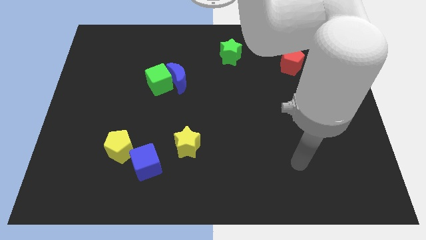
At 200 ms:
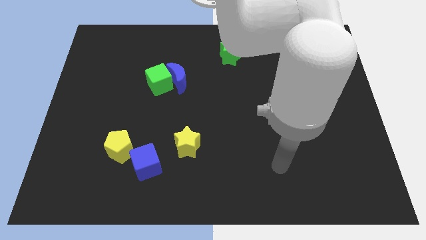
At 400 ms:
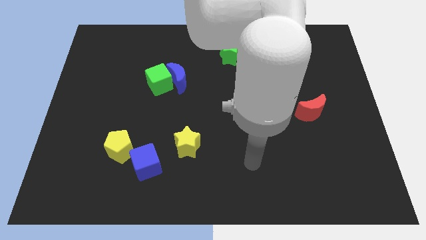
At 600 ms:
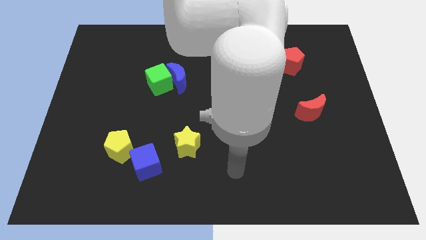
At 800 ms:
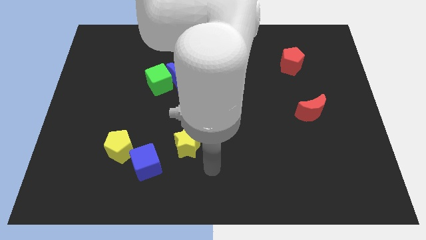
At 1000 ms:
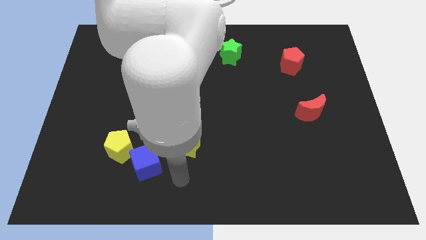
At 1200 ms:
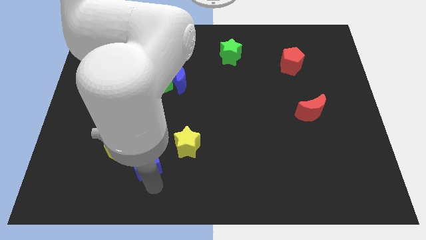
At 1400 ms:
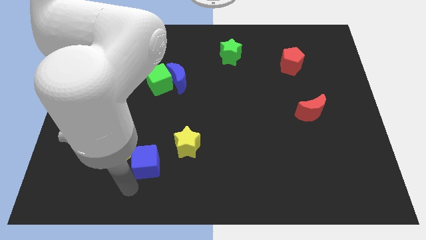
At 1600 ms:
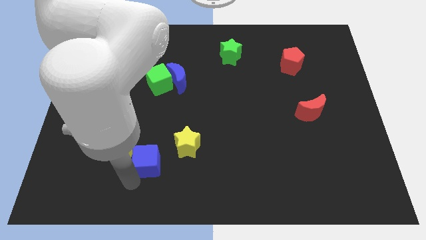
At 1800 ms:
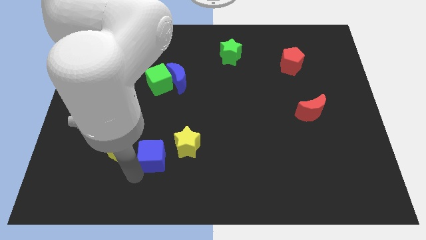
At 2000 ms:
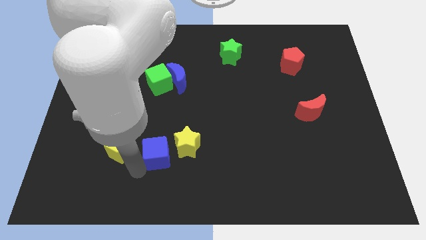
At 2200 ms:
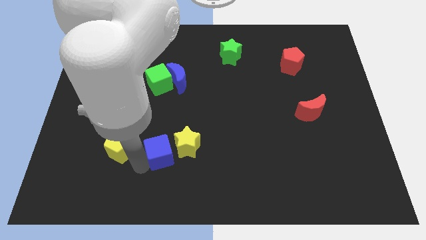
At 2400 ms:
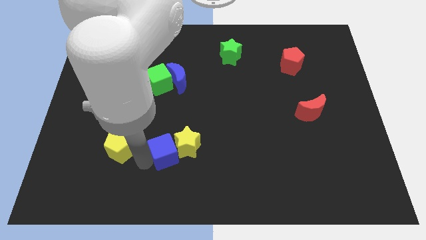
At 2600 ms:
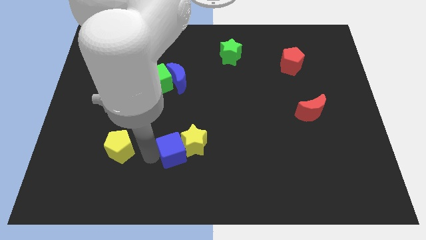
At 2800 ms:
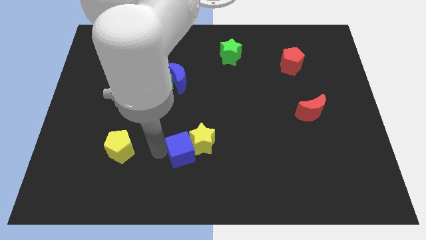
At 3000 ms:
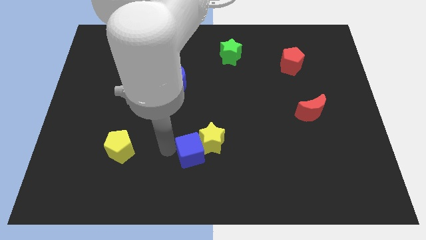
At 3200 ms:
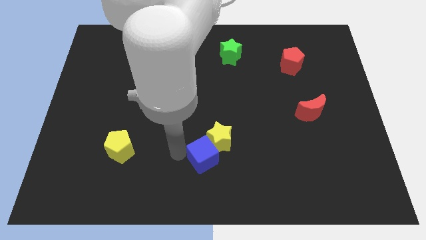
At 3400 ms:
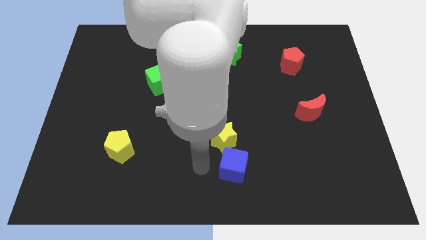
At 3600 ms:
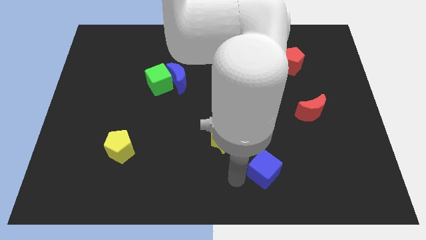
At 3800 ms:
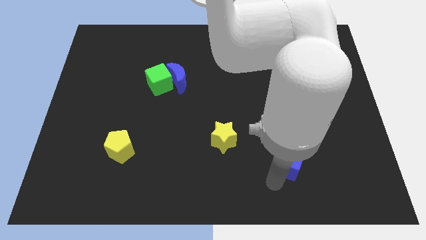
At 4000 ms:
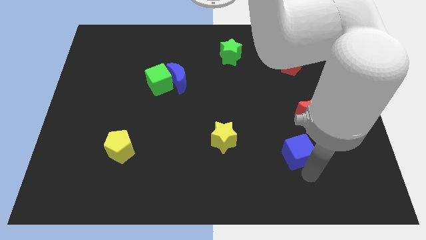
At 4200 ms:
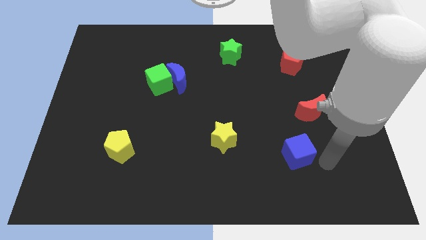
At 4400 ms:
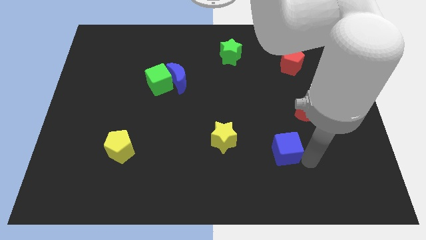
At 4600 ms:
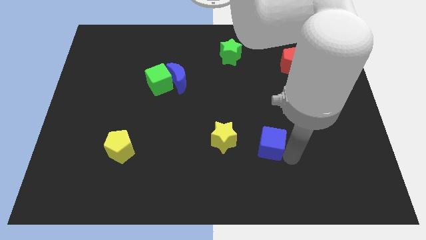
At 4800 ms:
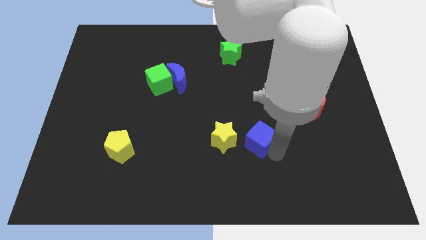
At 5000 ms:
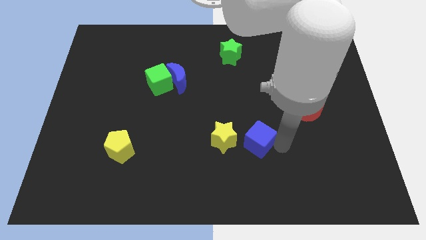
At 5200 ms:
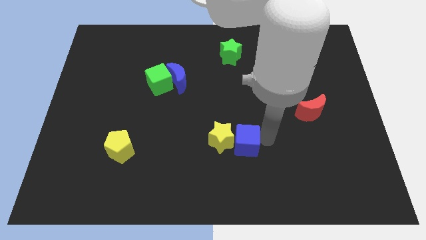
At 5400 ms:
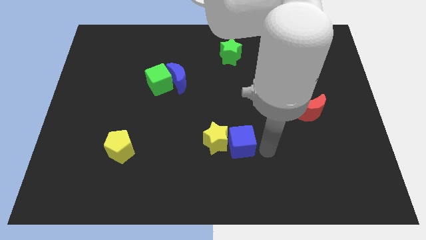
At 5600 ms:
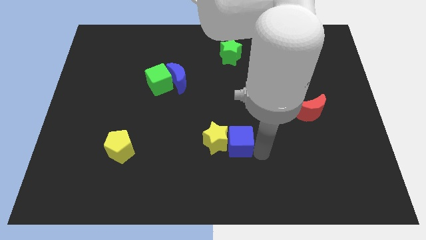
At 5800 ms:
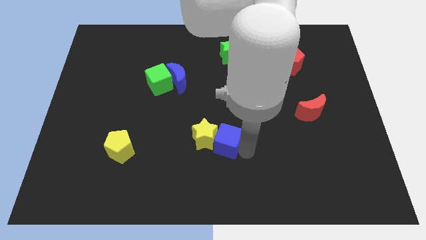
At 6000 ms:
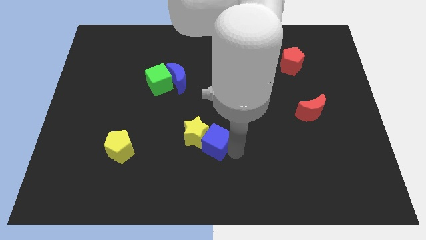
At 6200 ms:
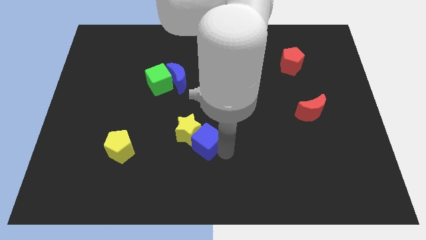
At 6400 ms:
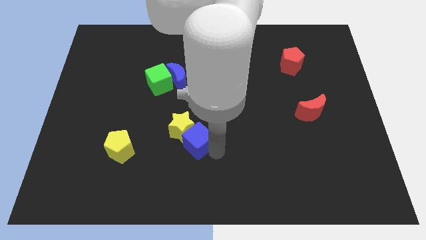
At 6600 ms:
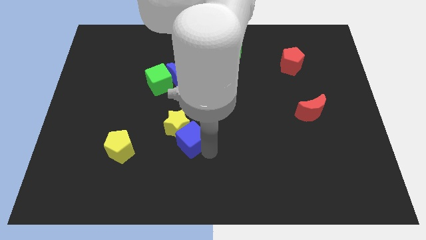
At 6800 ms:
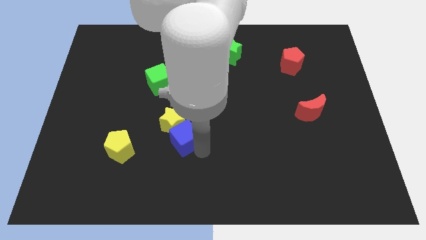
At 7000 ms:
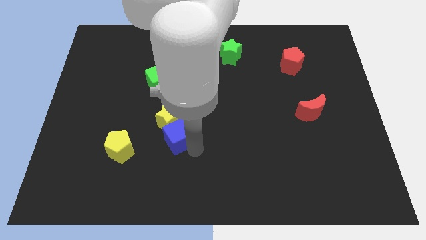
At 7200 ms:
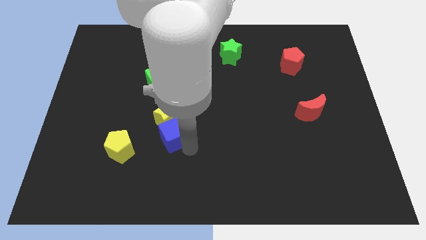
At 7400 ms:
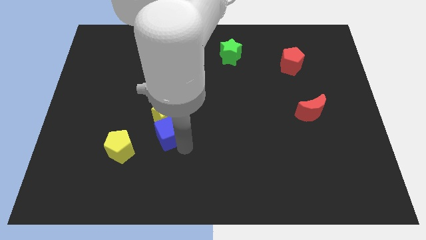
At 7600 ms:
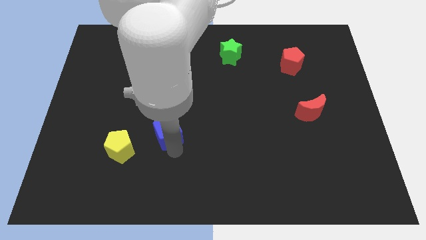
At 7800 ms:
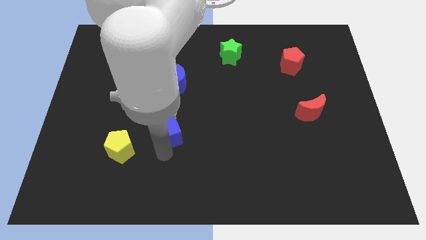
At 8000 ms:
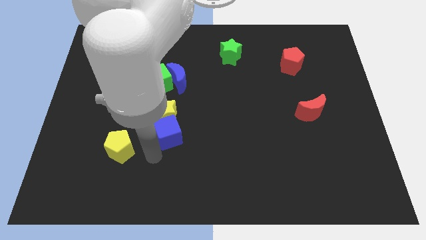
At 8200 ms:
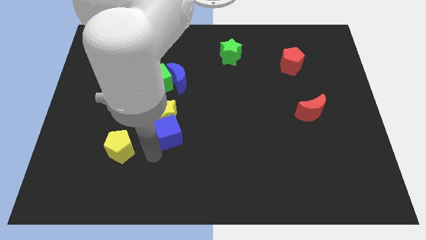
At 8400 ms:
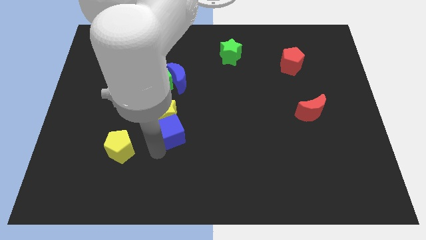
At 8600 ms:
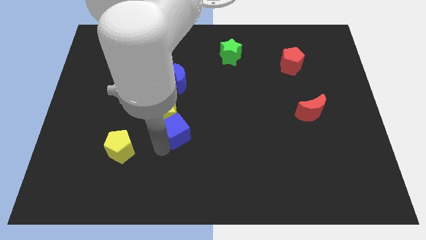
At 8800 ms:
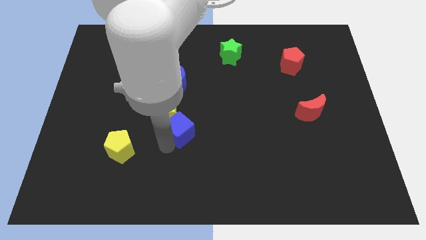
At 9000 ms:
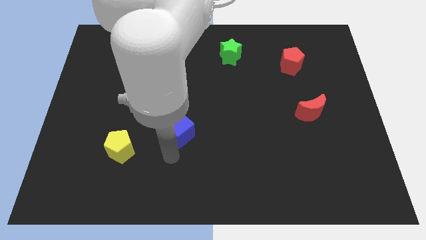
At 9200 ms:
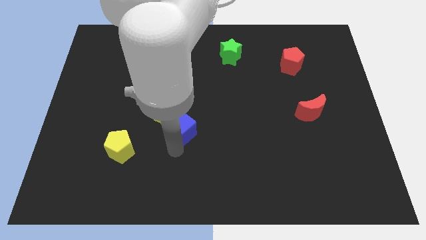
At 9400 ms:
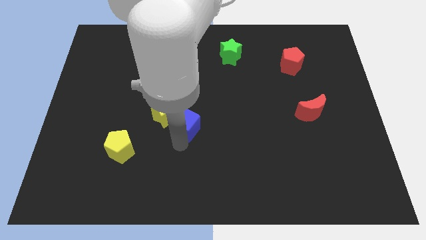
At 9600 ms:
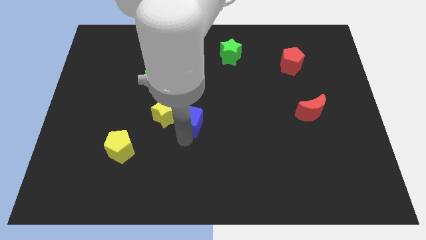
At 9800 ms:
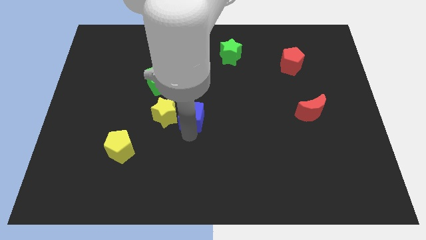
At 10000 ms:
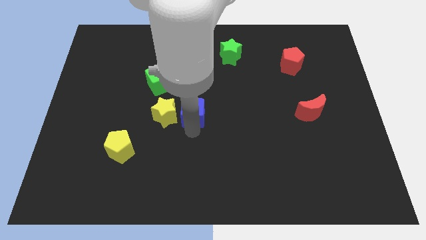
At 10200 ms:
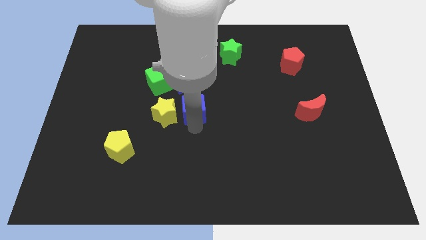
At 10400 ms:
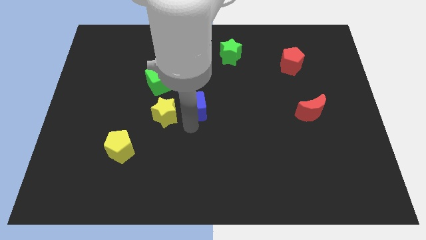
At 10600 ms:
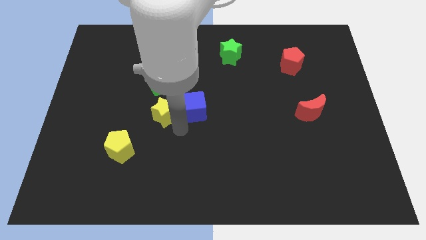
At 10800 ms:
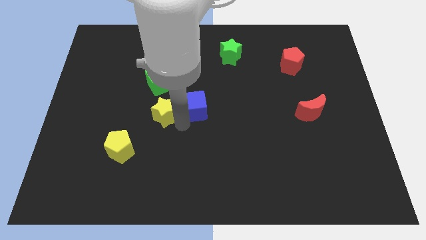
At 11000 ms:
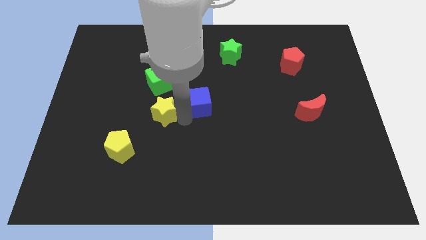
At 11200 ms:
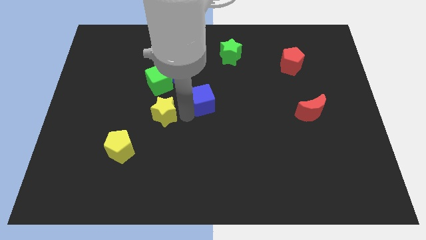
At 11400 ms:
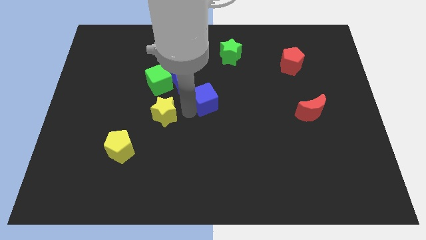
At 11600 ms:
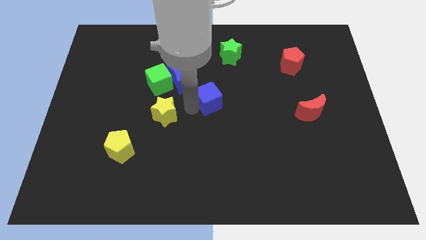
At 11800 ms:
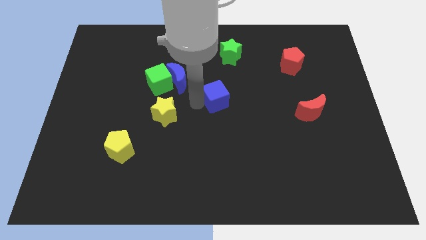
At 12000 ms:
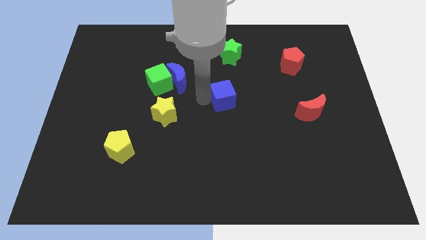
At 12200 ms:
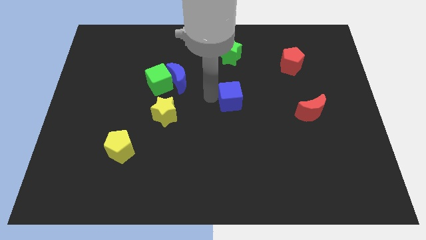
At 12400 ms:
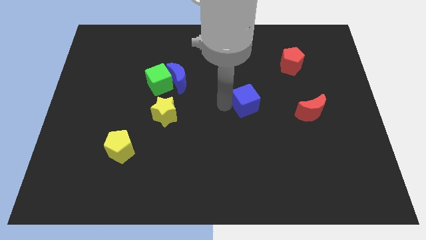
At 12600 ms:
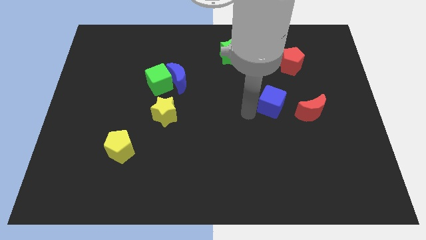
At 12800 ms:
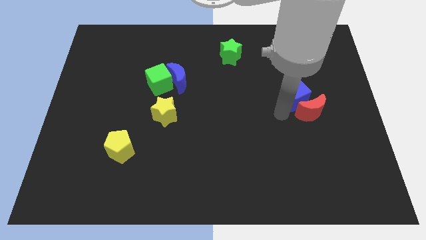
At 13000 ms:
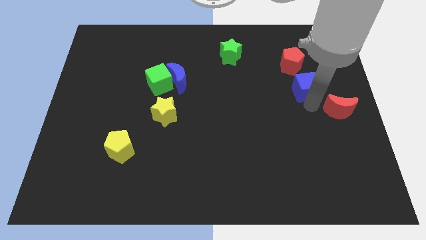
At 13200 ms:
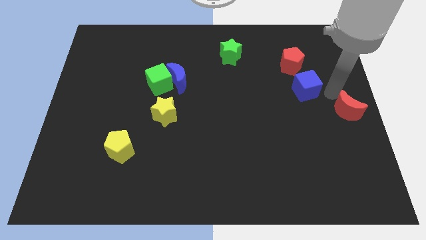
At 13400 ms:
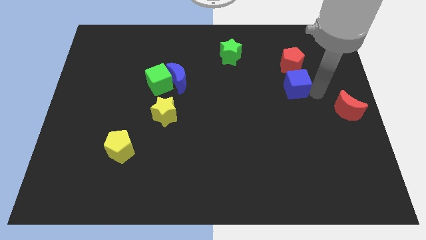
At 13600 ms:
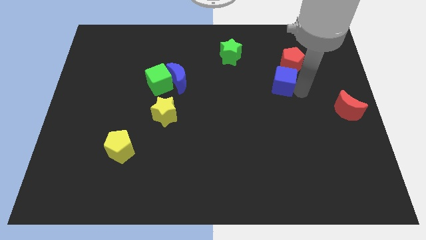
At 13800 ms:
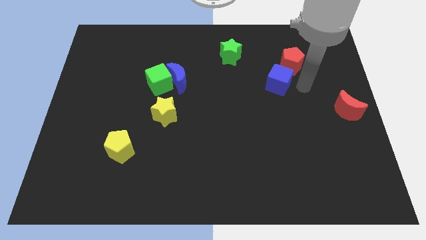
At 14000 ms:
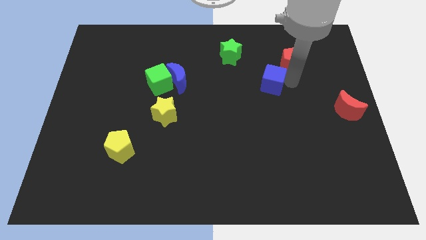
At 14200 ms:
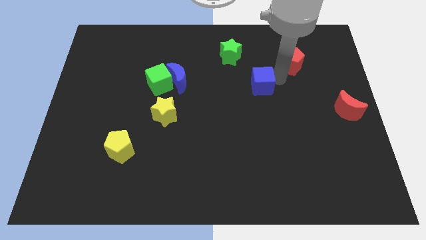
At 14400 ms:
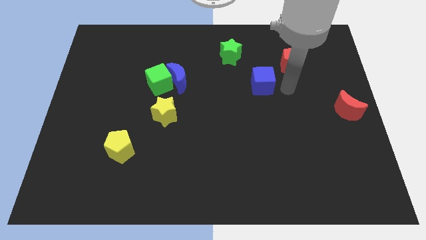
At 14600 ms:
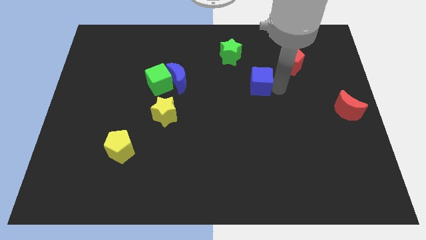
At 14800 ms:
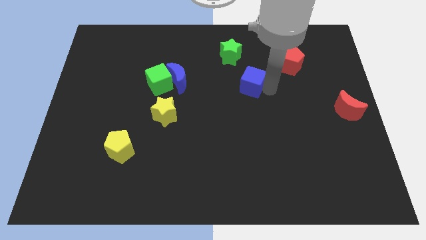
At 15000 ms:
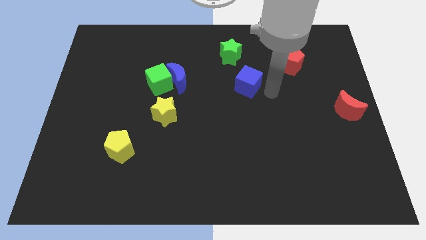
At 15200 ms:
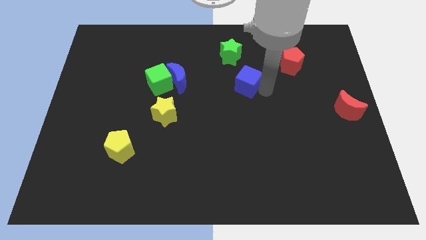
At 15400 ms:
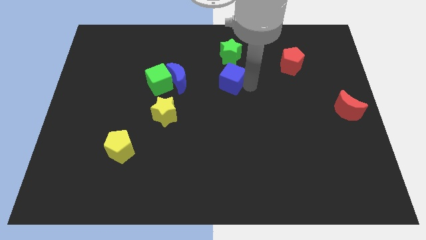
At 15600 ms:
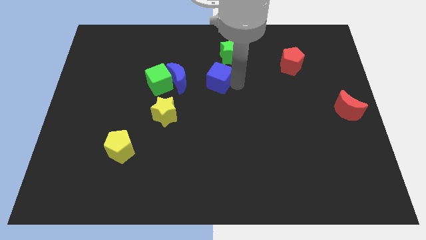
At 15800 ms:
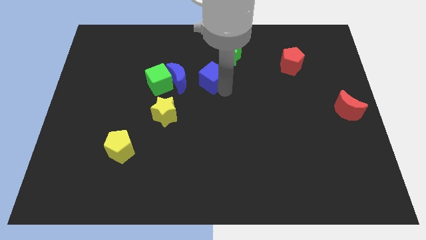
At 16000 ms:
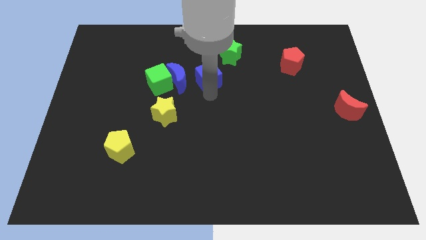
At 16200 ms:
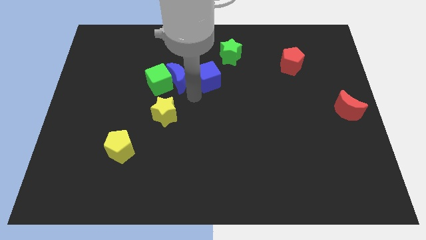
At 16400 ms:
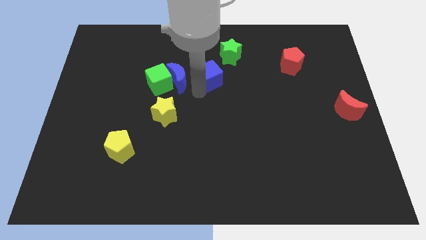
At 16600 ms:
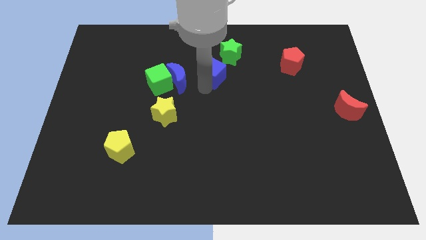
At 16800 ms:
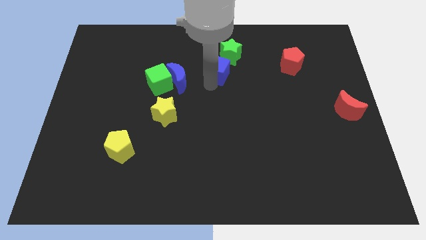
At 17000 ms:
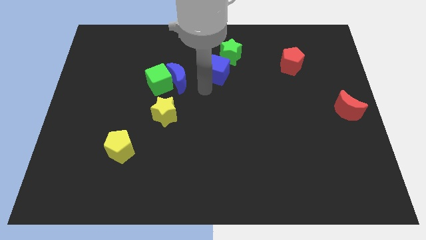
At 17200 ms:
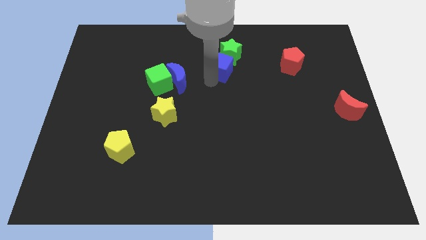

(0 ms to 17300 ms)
push the blue cube to the green star
